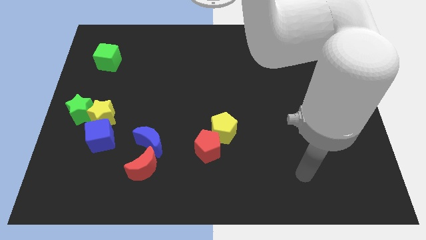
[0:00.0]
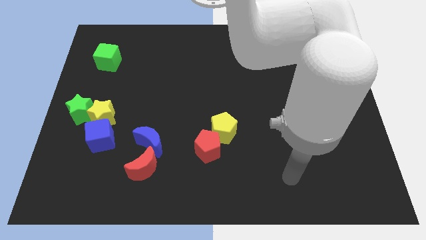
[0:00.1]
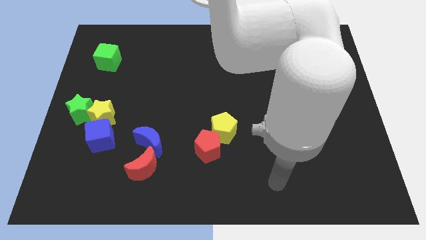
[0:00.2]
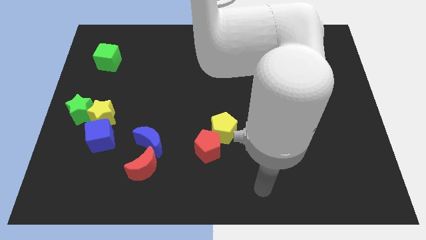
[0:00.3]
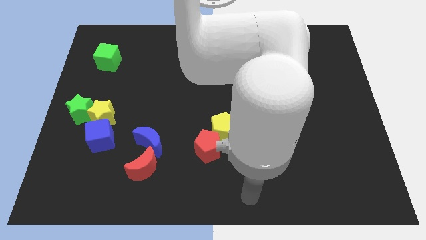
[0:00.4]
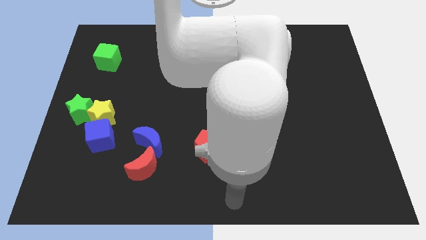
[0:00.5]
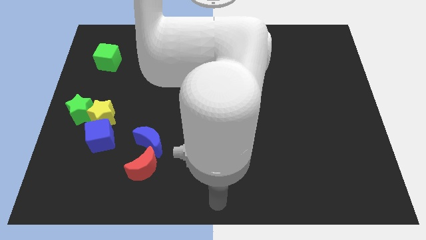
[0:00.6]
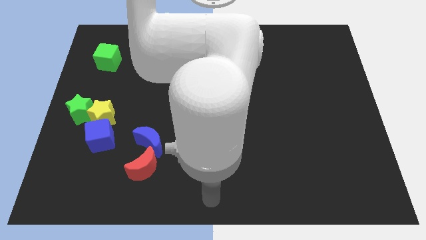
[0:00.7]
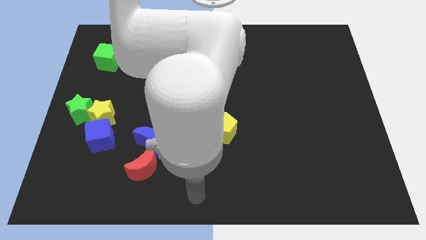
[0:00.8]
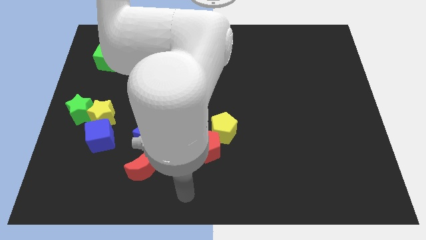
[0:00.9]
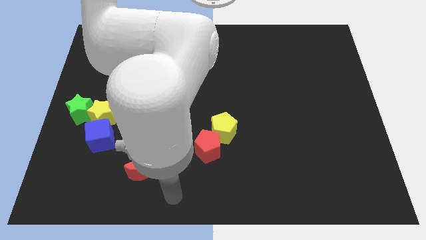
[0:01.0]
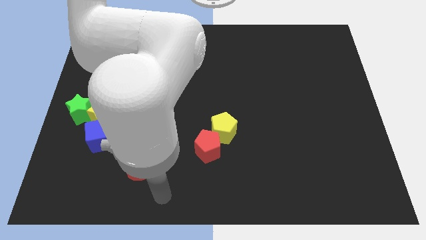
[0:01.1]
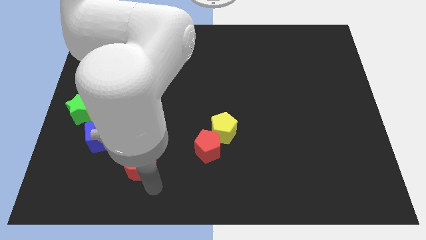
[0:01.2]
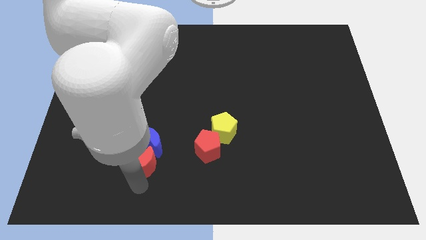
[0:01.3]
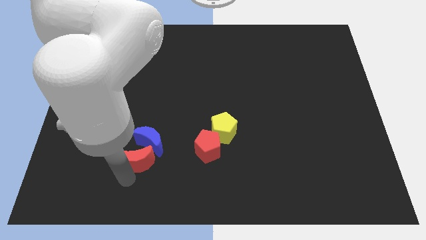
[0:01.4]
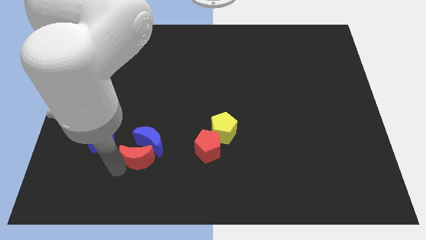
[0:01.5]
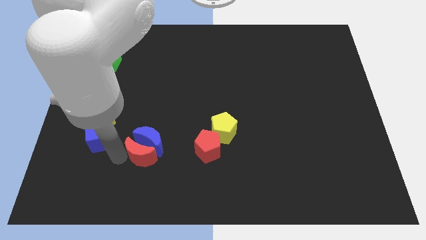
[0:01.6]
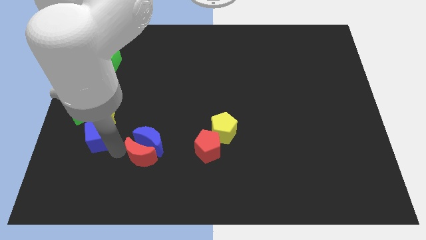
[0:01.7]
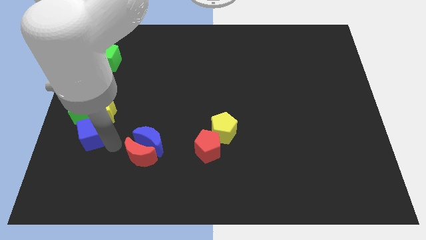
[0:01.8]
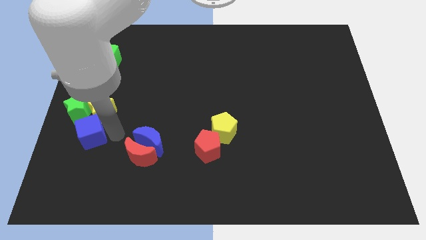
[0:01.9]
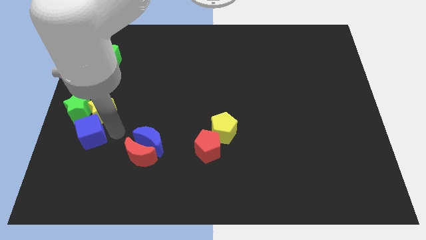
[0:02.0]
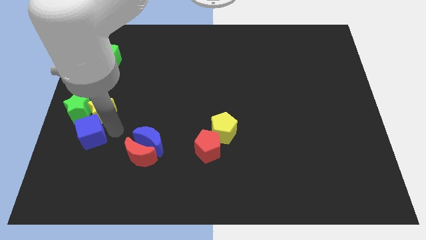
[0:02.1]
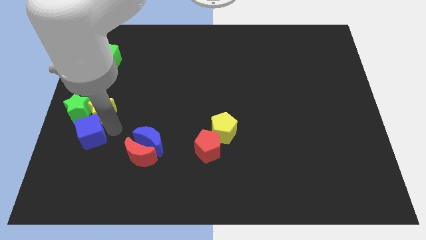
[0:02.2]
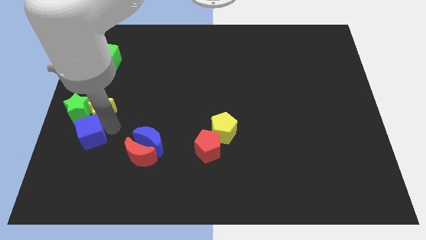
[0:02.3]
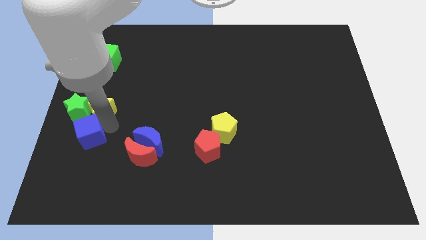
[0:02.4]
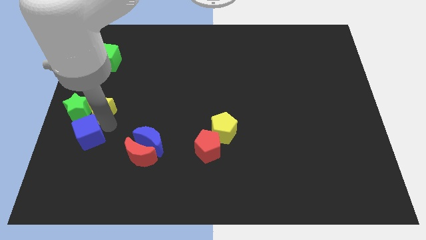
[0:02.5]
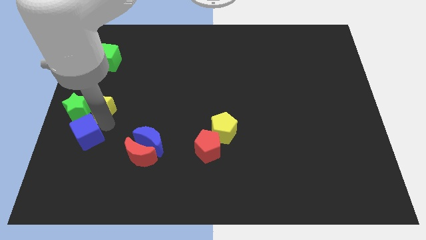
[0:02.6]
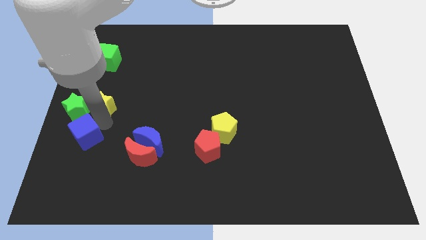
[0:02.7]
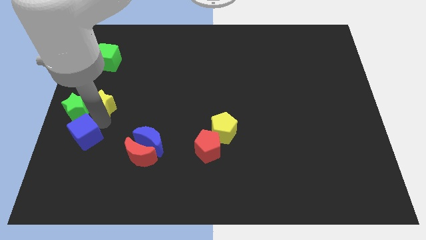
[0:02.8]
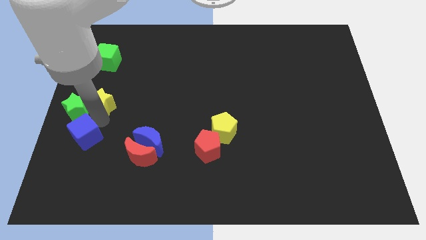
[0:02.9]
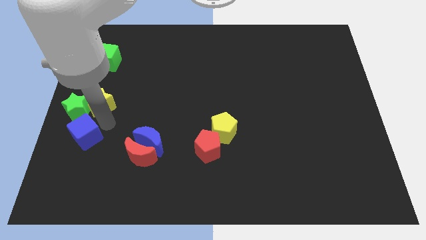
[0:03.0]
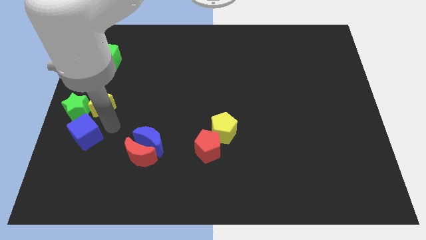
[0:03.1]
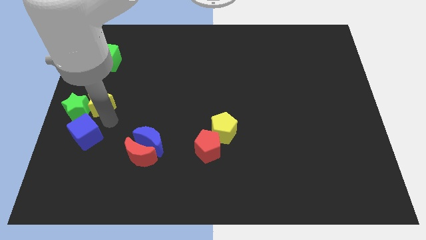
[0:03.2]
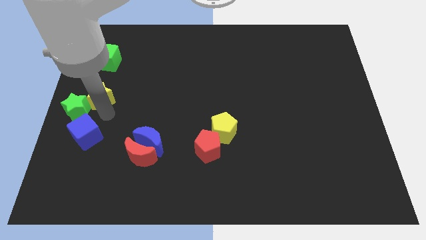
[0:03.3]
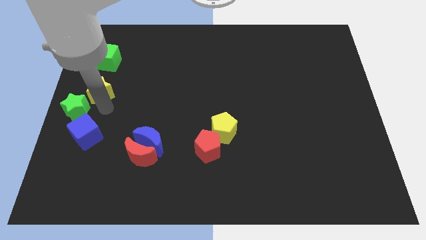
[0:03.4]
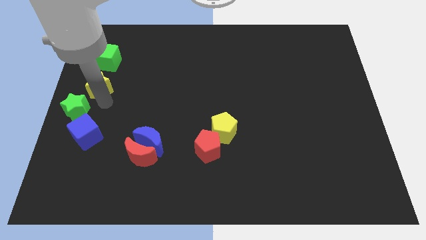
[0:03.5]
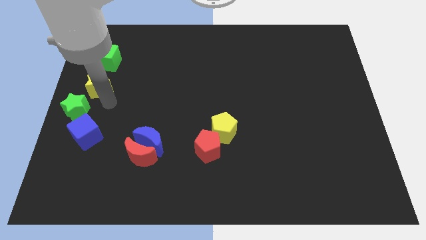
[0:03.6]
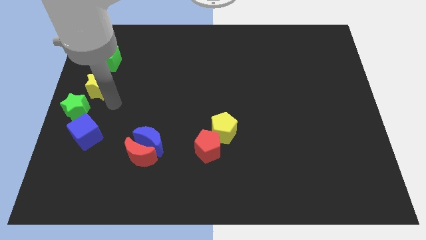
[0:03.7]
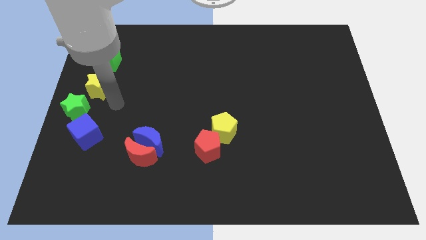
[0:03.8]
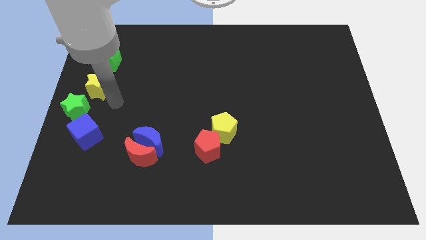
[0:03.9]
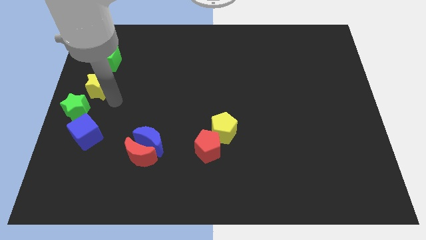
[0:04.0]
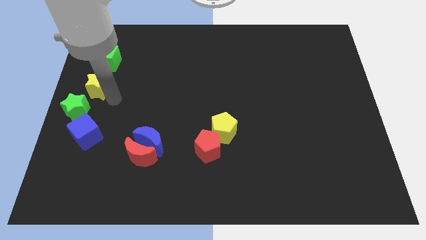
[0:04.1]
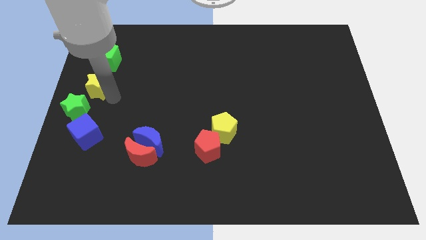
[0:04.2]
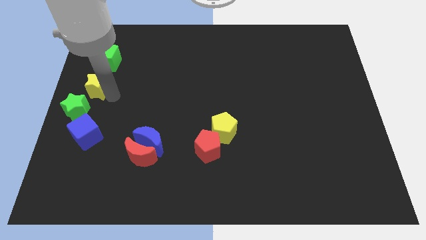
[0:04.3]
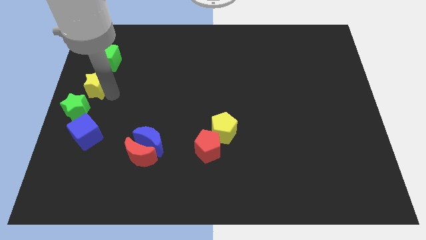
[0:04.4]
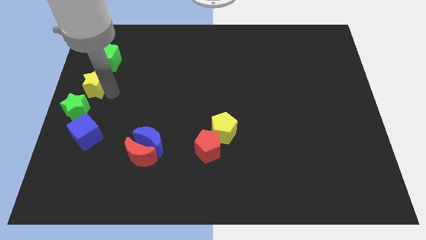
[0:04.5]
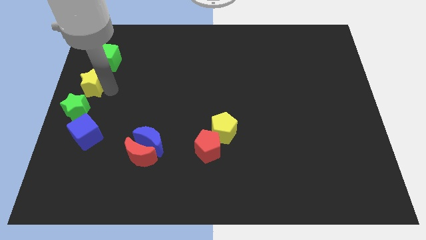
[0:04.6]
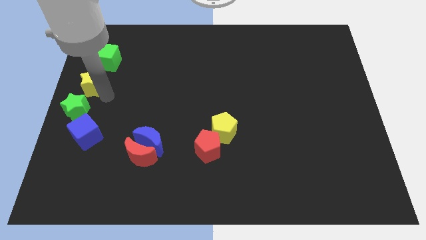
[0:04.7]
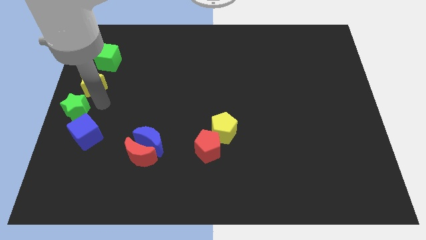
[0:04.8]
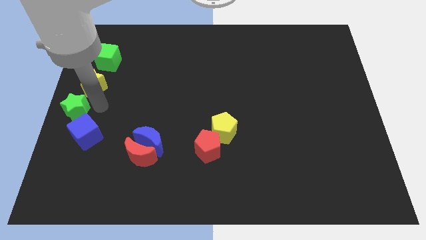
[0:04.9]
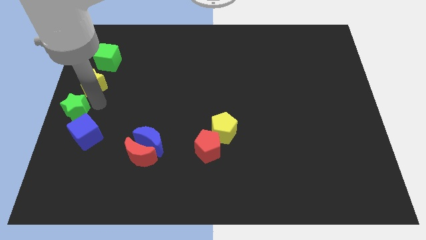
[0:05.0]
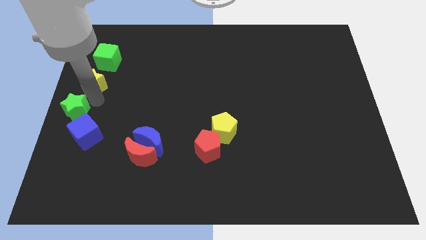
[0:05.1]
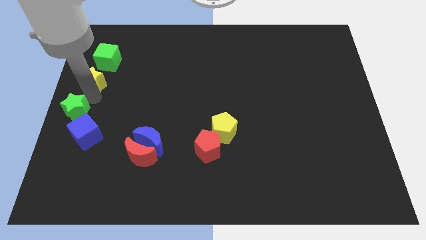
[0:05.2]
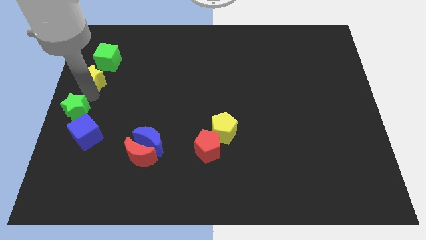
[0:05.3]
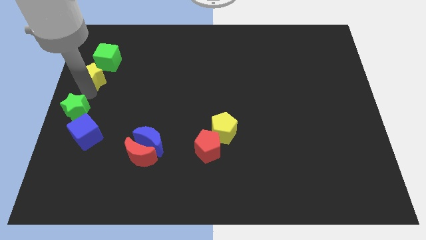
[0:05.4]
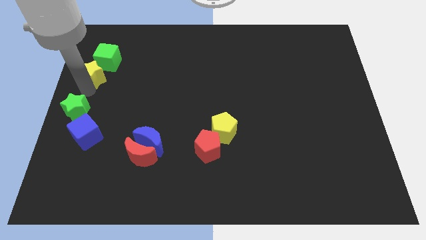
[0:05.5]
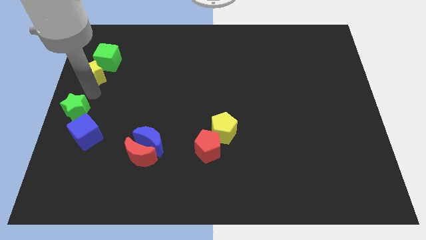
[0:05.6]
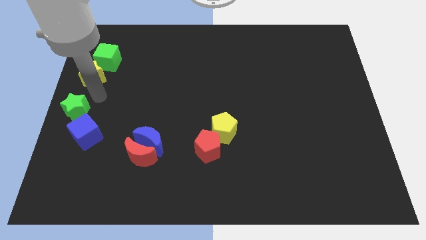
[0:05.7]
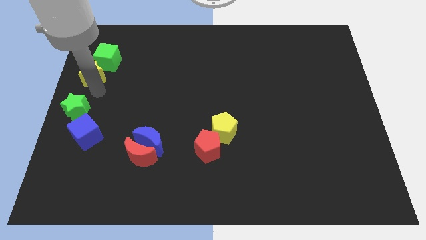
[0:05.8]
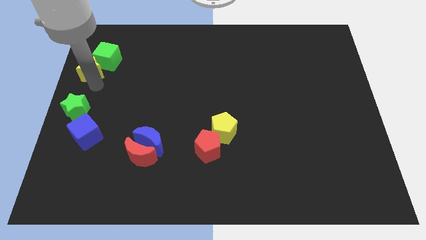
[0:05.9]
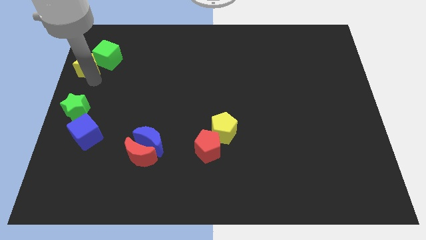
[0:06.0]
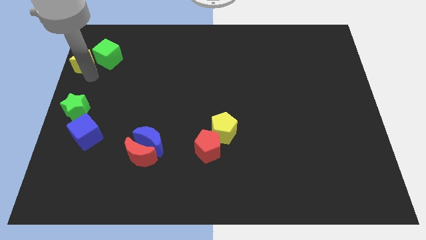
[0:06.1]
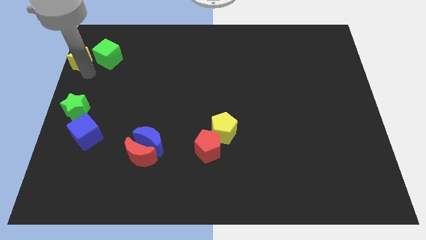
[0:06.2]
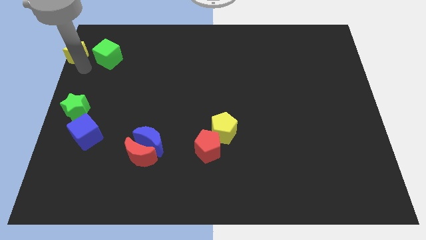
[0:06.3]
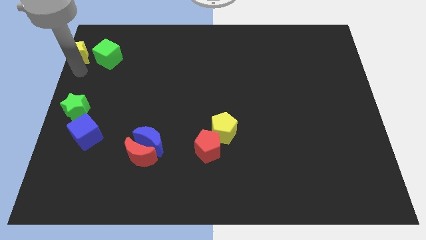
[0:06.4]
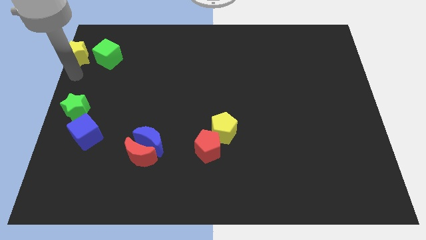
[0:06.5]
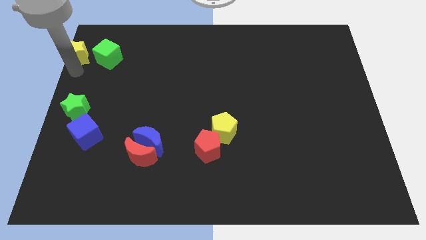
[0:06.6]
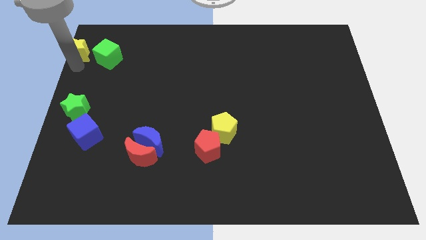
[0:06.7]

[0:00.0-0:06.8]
put the yellow star to the top left
